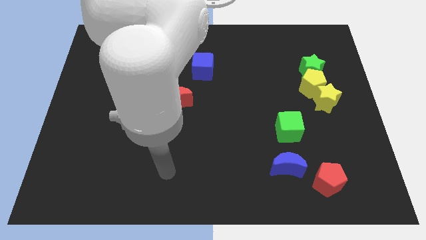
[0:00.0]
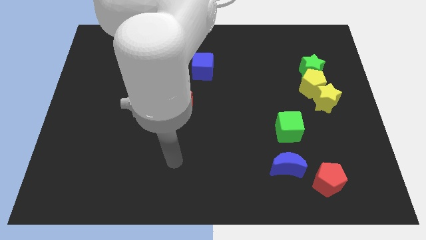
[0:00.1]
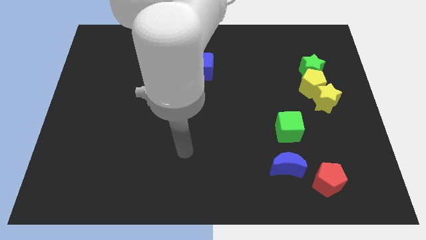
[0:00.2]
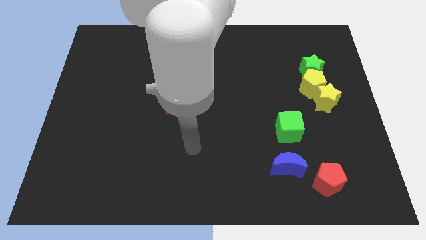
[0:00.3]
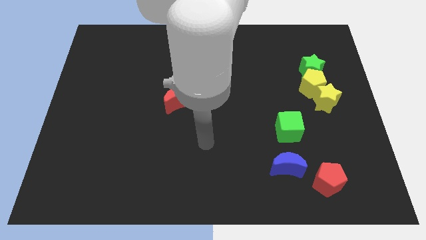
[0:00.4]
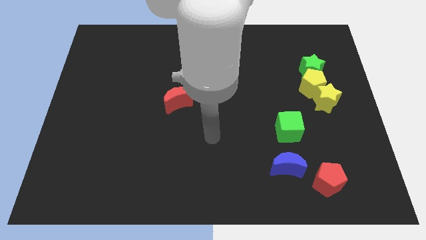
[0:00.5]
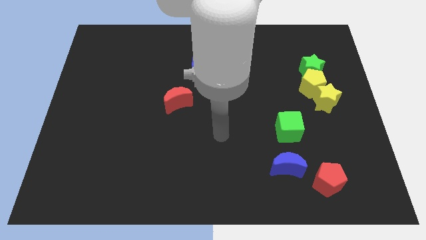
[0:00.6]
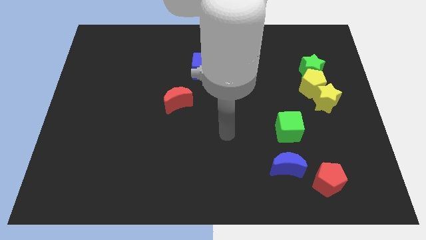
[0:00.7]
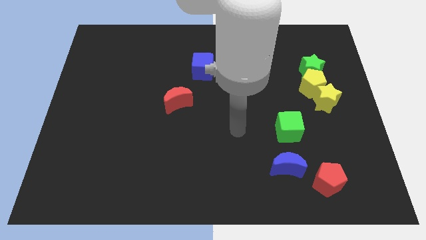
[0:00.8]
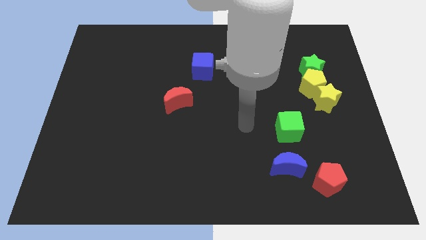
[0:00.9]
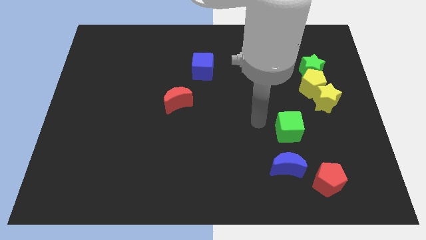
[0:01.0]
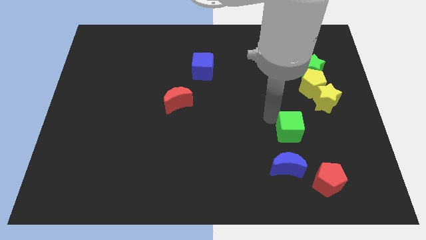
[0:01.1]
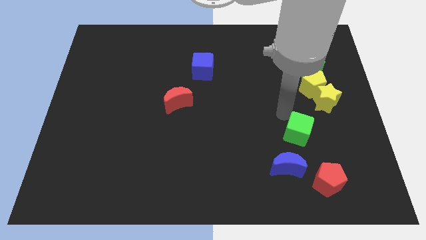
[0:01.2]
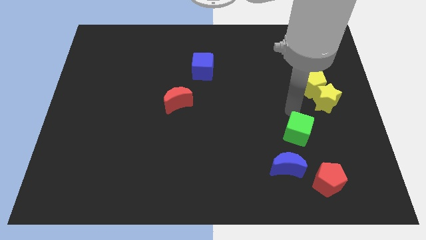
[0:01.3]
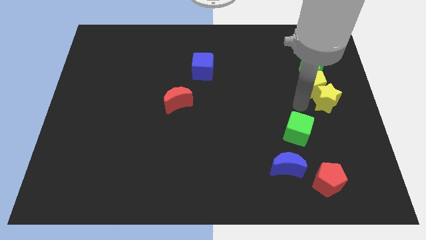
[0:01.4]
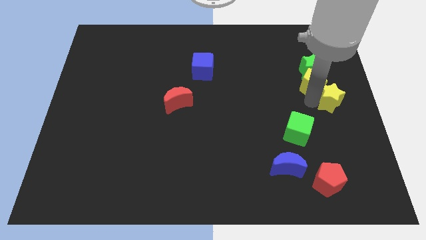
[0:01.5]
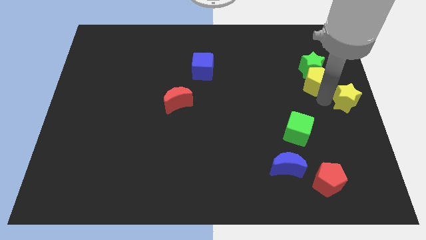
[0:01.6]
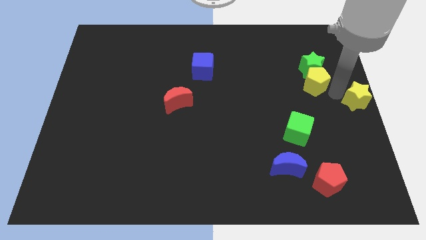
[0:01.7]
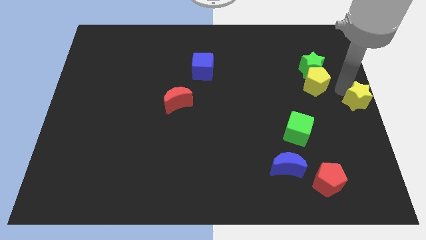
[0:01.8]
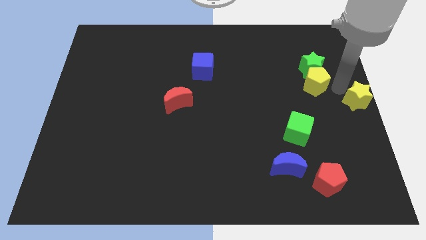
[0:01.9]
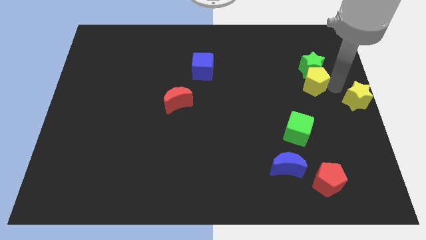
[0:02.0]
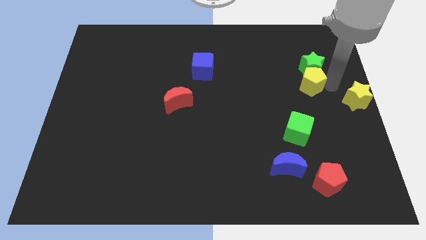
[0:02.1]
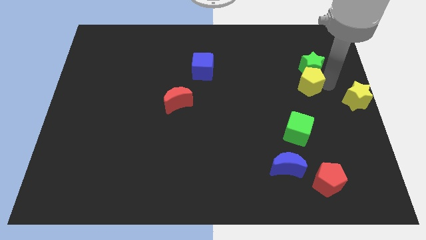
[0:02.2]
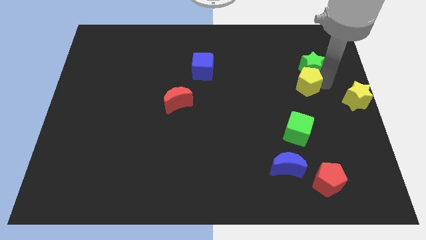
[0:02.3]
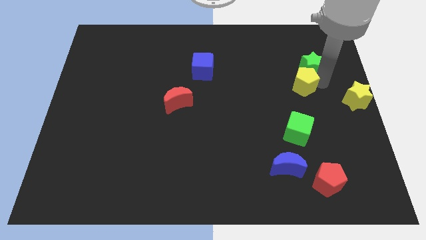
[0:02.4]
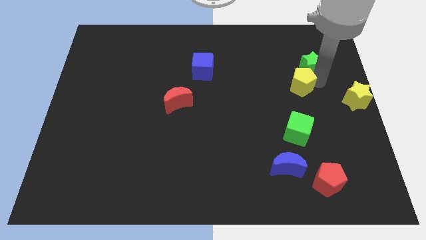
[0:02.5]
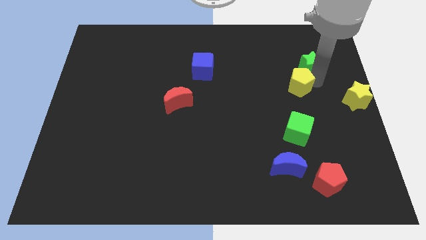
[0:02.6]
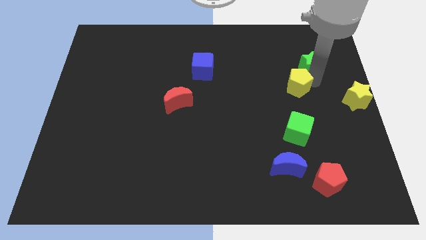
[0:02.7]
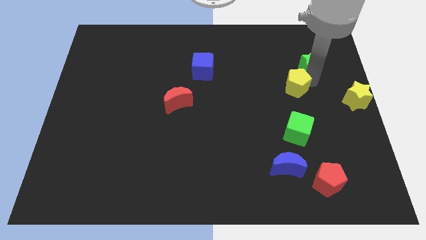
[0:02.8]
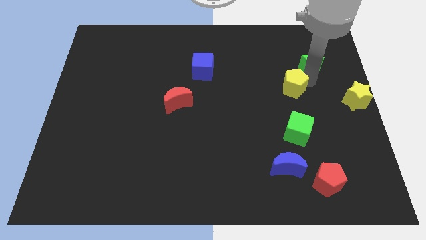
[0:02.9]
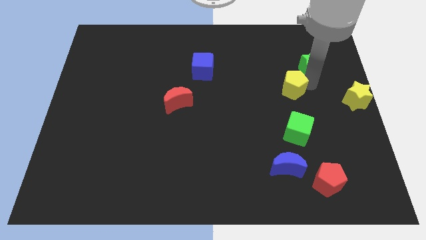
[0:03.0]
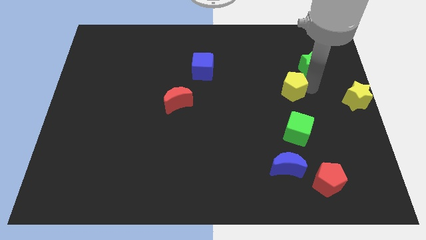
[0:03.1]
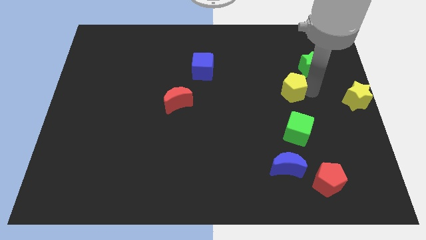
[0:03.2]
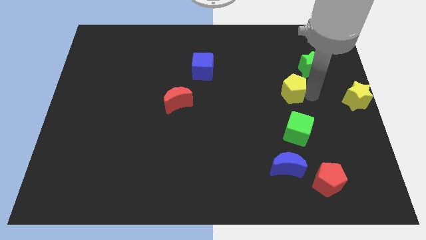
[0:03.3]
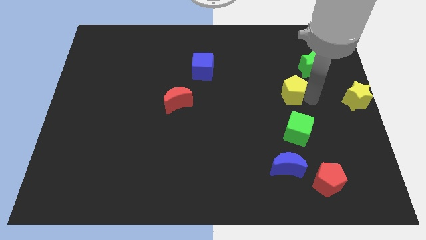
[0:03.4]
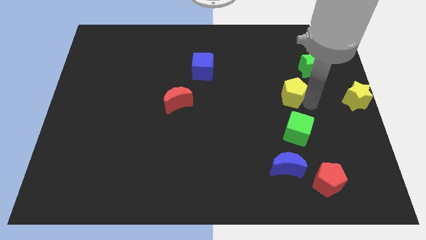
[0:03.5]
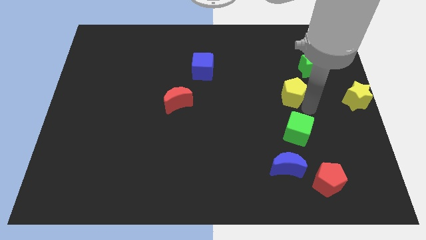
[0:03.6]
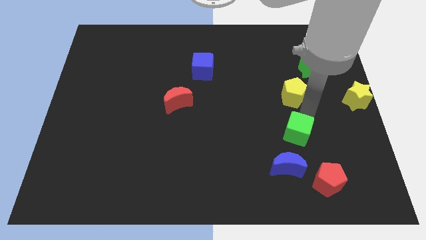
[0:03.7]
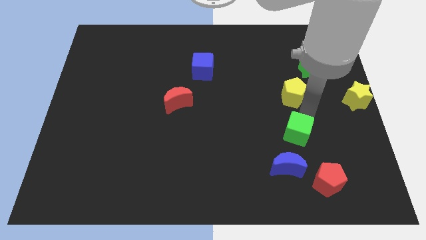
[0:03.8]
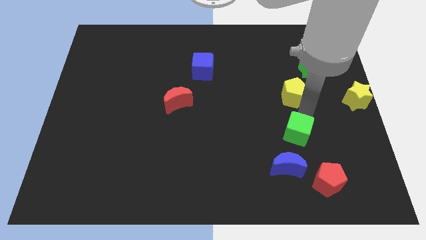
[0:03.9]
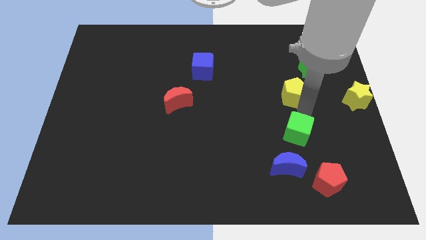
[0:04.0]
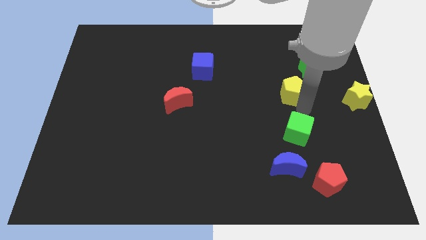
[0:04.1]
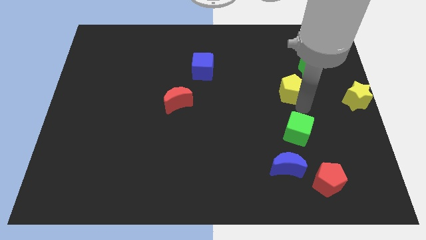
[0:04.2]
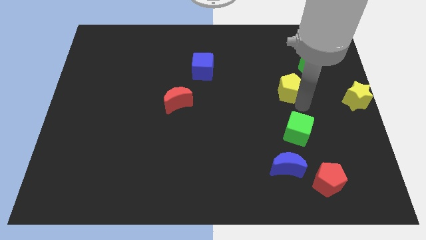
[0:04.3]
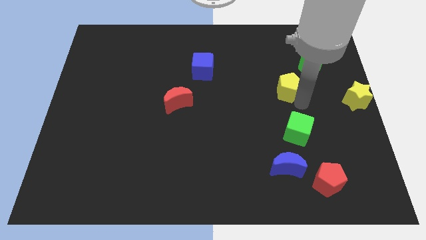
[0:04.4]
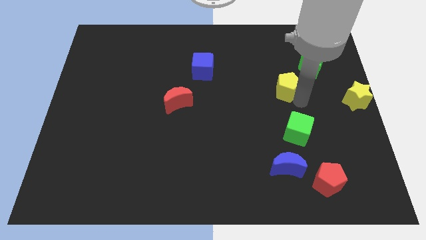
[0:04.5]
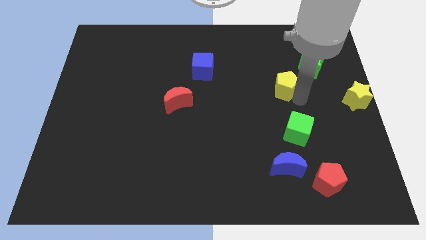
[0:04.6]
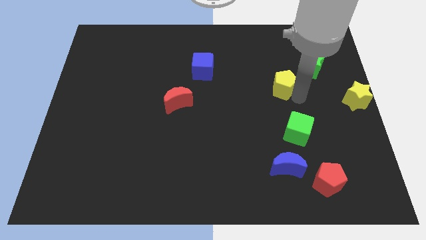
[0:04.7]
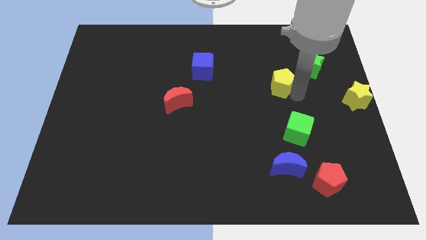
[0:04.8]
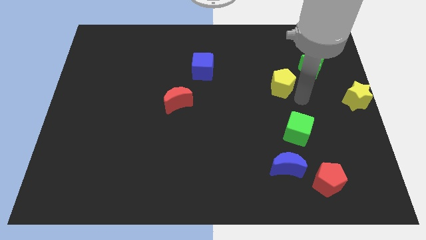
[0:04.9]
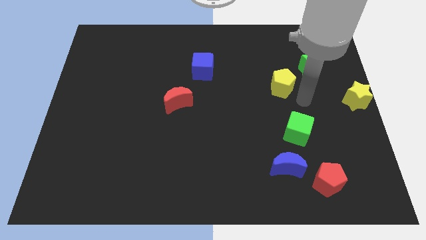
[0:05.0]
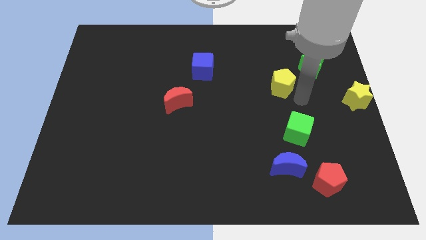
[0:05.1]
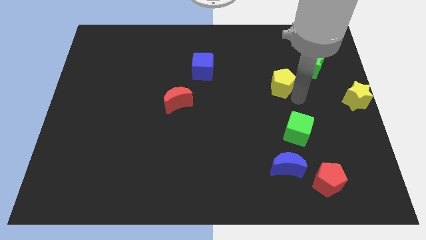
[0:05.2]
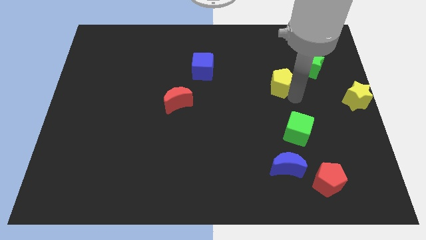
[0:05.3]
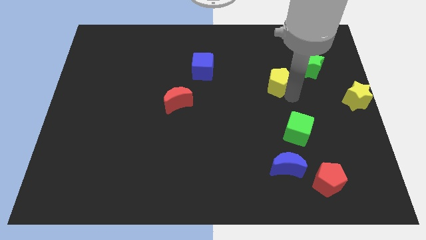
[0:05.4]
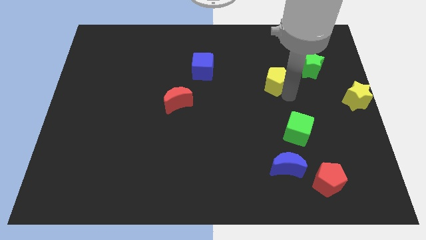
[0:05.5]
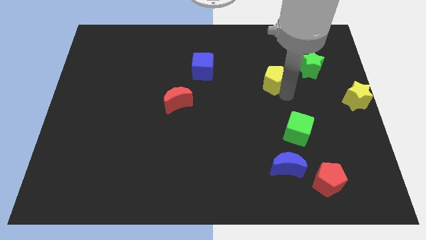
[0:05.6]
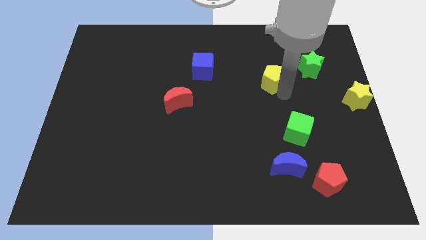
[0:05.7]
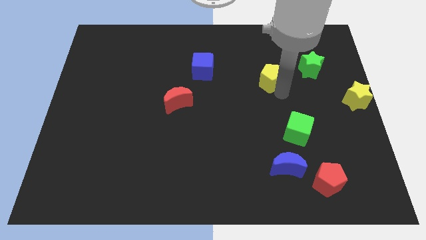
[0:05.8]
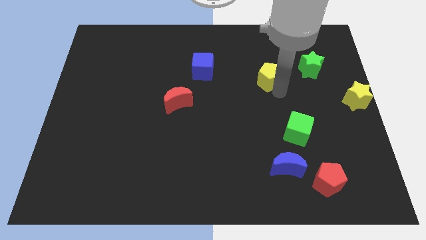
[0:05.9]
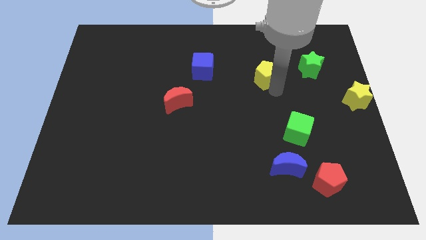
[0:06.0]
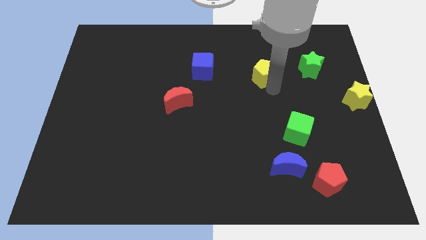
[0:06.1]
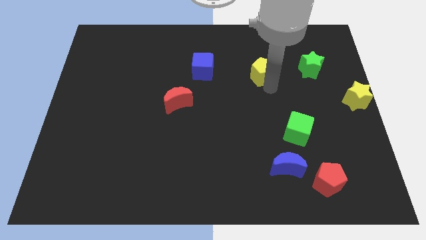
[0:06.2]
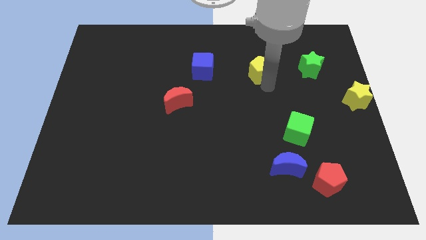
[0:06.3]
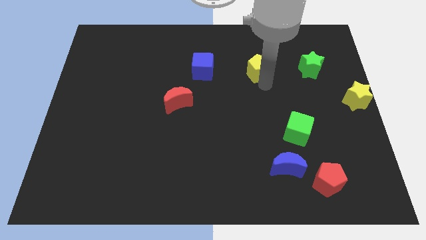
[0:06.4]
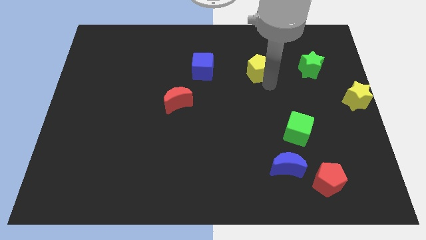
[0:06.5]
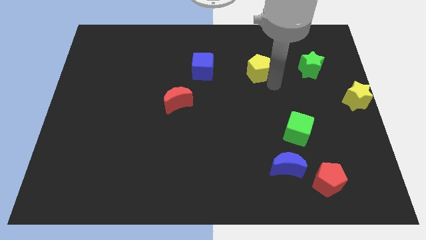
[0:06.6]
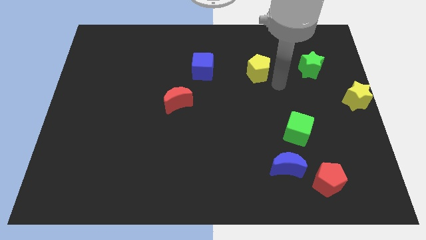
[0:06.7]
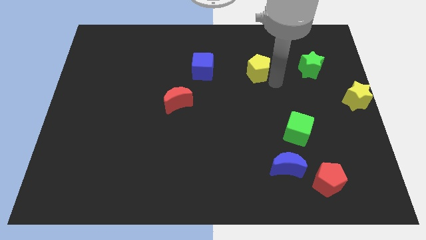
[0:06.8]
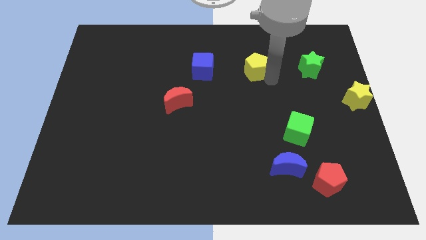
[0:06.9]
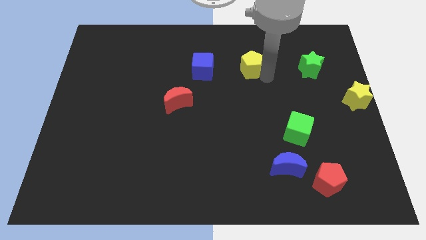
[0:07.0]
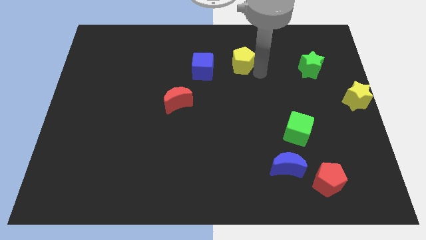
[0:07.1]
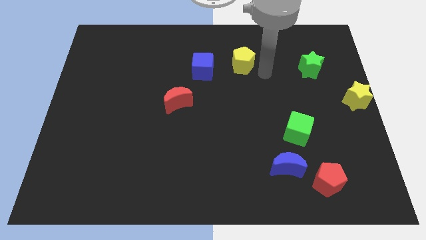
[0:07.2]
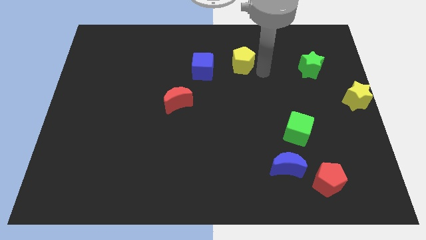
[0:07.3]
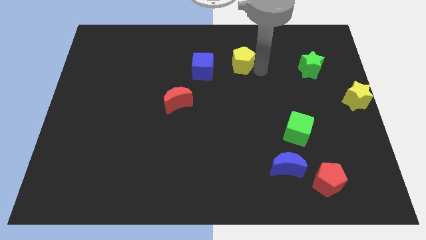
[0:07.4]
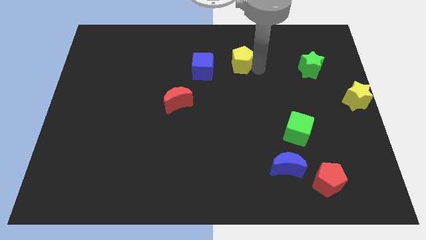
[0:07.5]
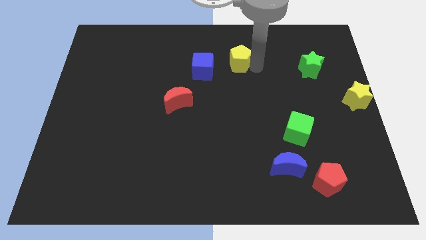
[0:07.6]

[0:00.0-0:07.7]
push the yellow pentagon to the top right of the blue cube

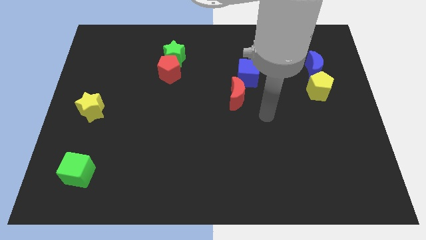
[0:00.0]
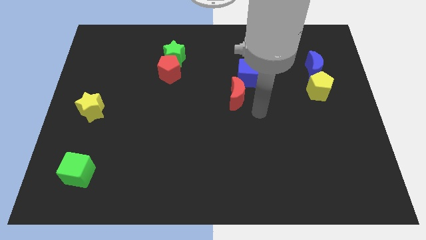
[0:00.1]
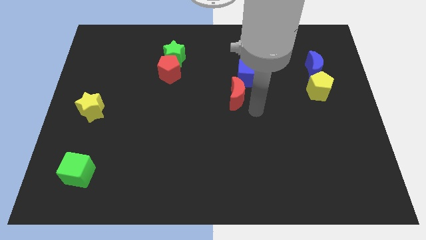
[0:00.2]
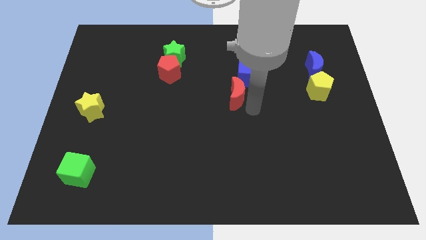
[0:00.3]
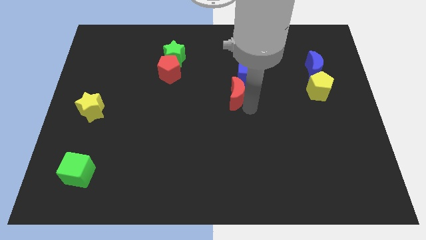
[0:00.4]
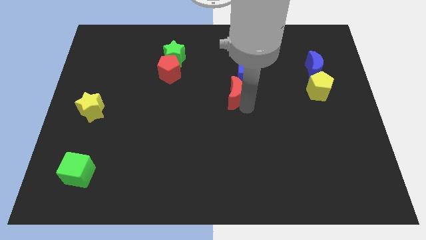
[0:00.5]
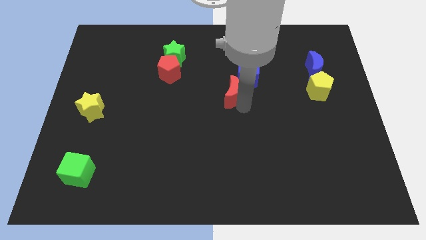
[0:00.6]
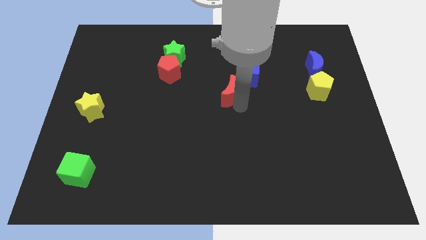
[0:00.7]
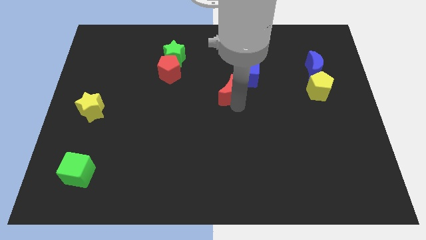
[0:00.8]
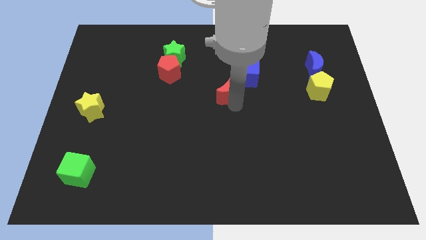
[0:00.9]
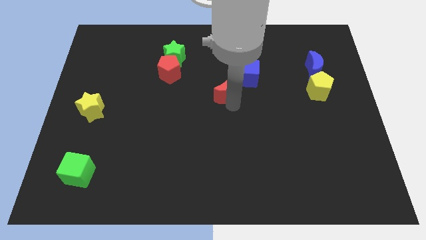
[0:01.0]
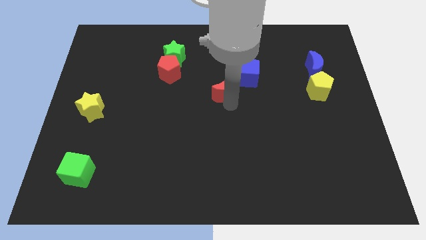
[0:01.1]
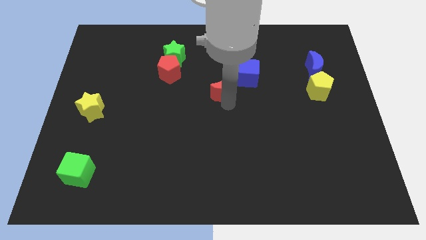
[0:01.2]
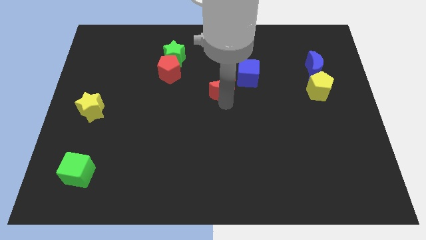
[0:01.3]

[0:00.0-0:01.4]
move the red moon left of the blue cube
